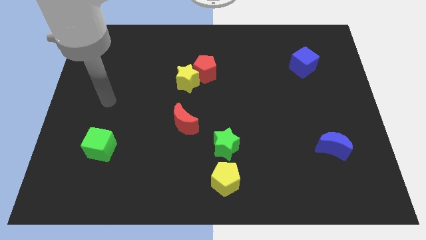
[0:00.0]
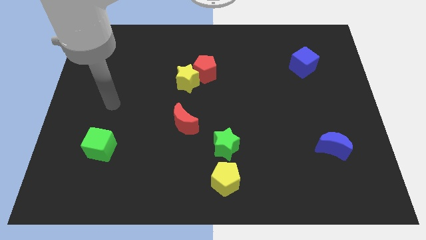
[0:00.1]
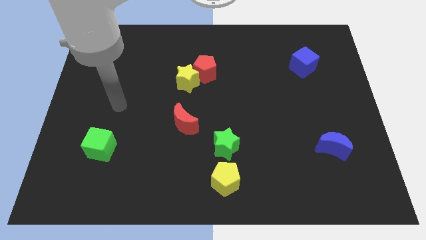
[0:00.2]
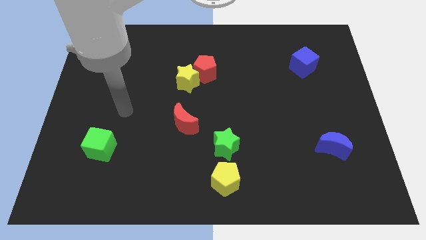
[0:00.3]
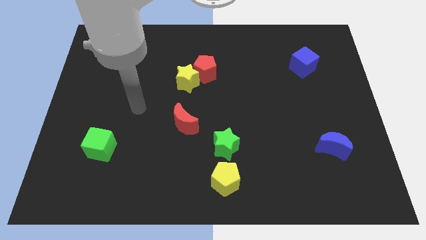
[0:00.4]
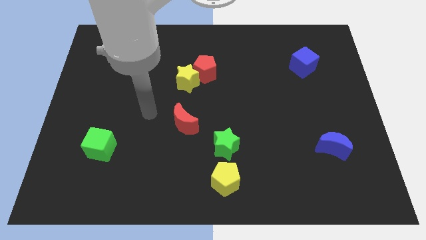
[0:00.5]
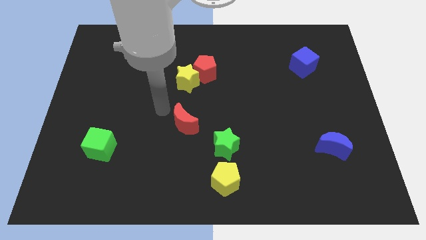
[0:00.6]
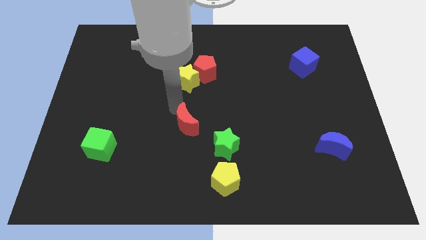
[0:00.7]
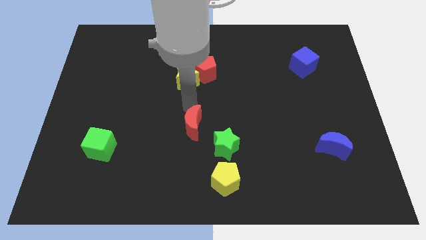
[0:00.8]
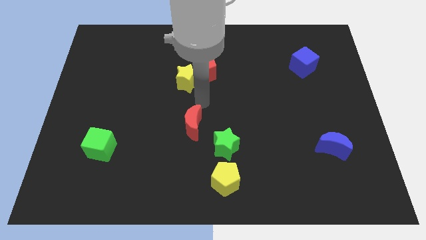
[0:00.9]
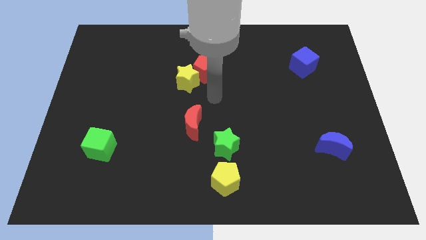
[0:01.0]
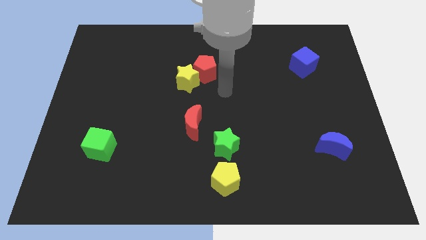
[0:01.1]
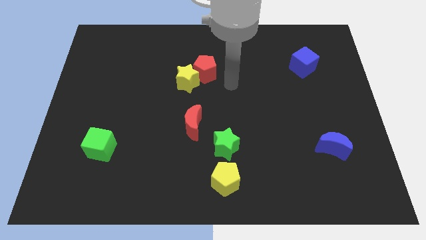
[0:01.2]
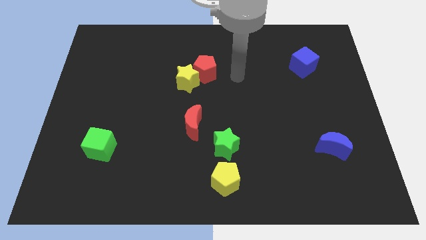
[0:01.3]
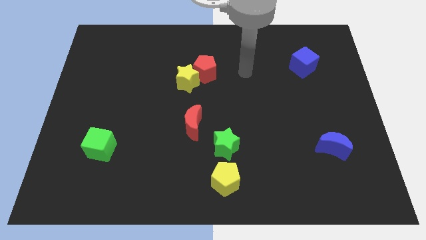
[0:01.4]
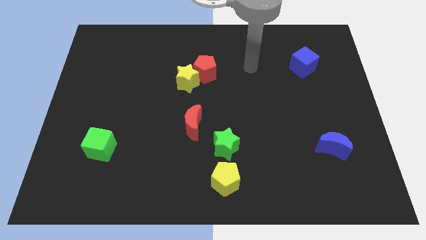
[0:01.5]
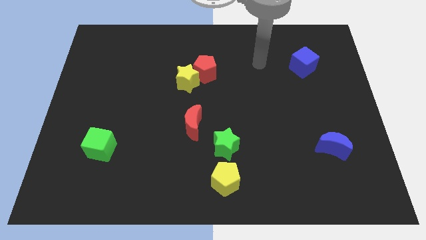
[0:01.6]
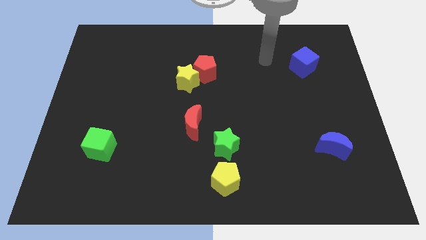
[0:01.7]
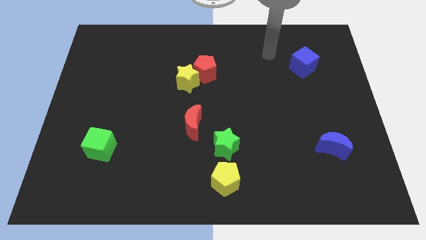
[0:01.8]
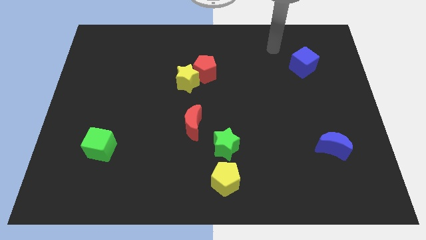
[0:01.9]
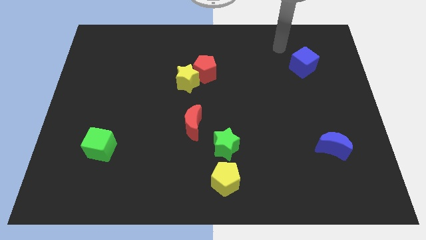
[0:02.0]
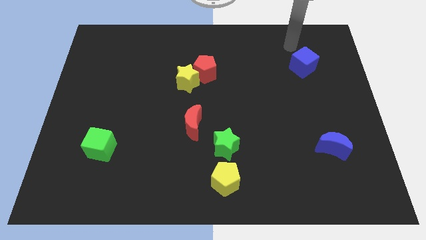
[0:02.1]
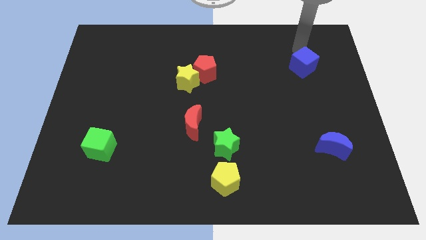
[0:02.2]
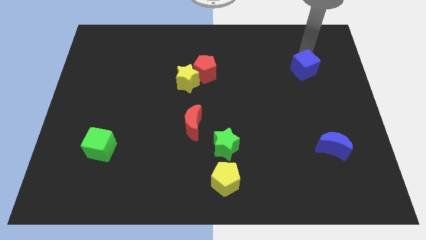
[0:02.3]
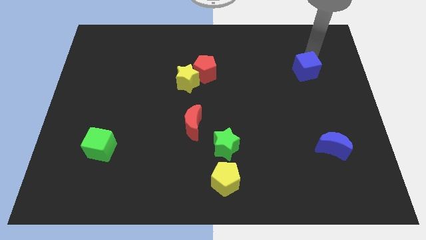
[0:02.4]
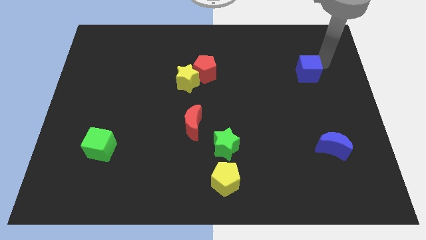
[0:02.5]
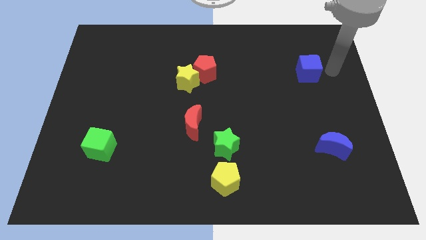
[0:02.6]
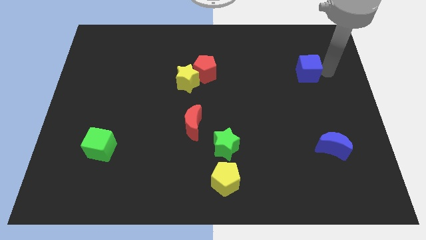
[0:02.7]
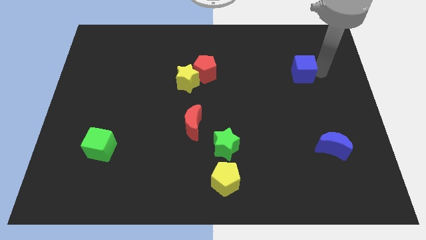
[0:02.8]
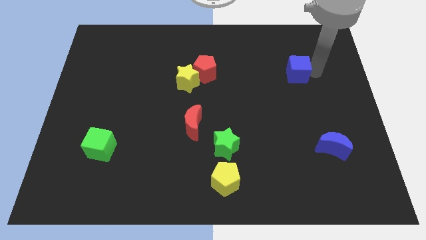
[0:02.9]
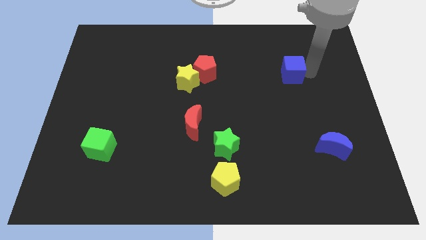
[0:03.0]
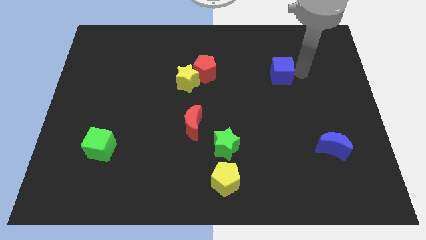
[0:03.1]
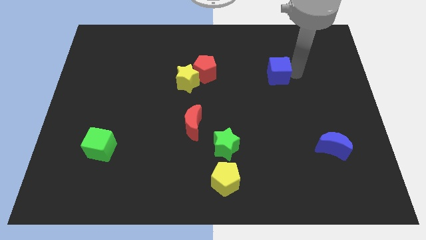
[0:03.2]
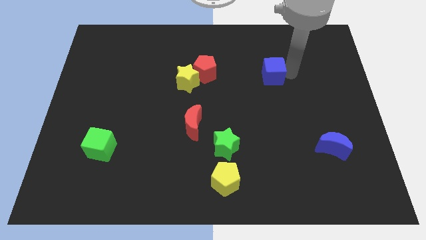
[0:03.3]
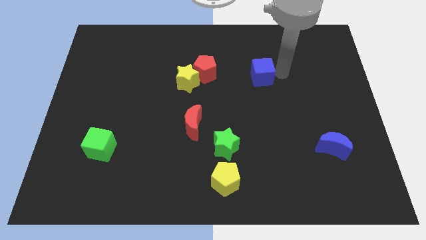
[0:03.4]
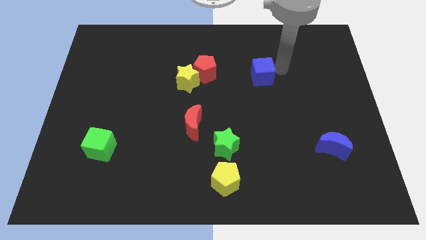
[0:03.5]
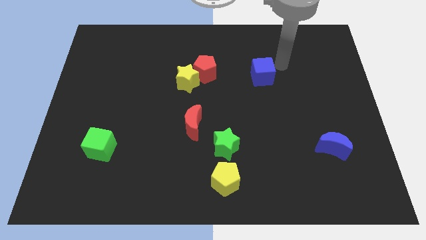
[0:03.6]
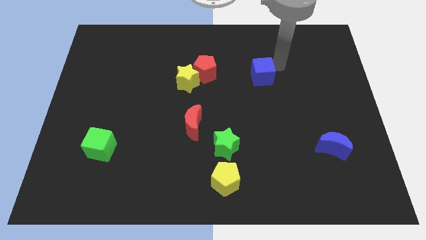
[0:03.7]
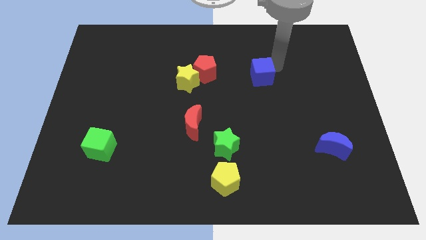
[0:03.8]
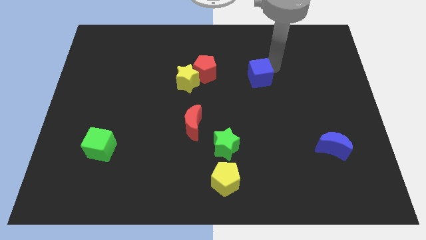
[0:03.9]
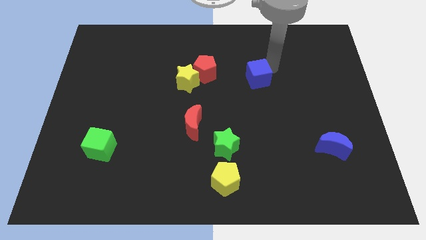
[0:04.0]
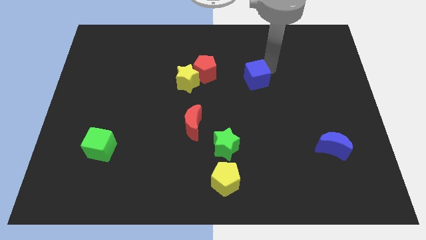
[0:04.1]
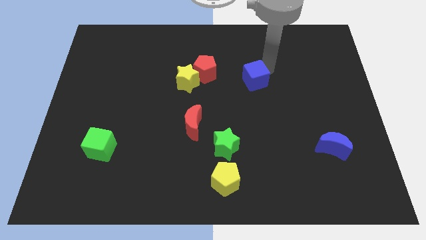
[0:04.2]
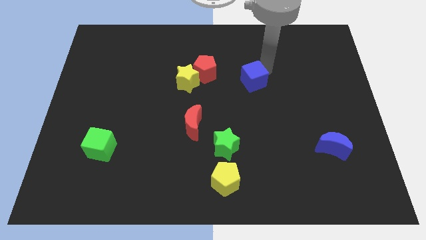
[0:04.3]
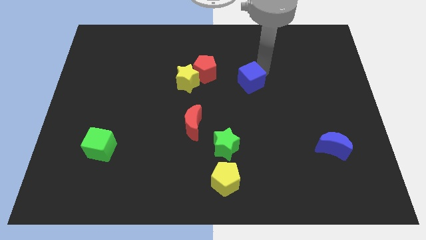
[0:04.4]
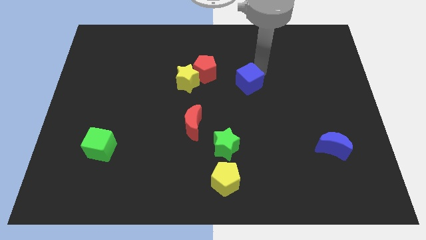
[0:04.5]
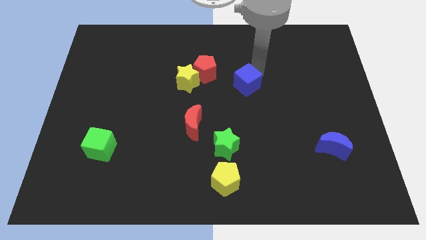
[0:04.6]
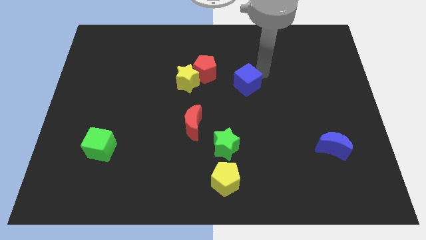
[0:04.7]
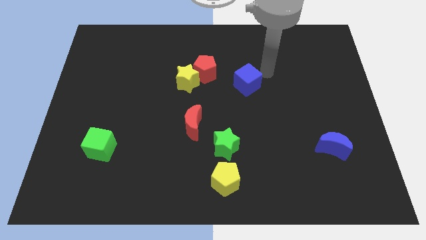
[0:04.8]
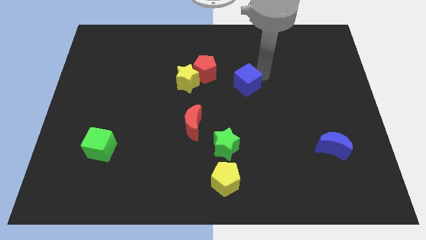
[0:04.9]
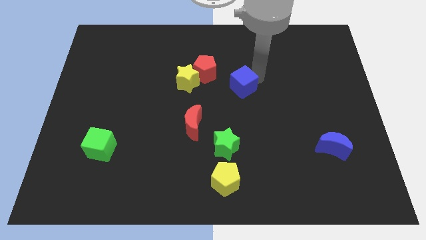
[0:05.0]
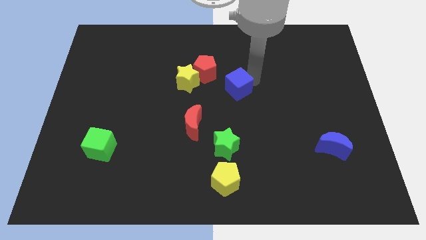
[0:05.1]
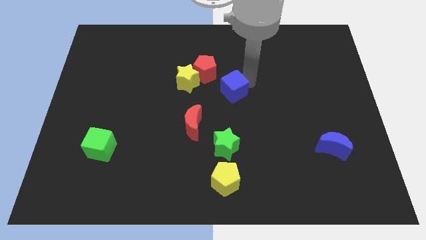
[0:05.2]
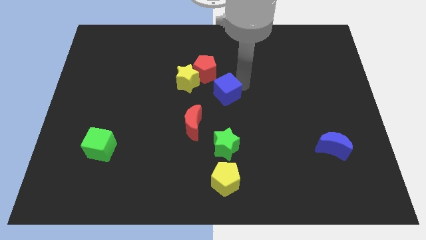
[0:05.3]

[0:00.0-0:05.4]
slide the blue cube to the top right of the red moon

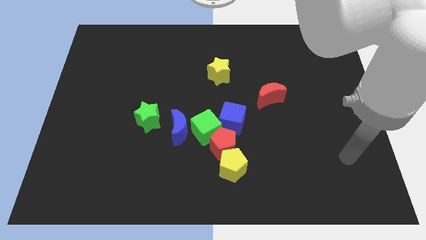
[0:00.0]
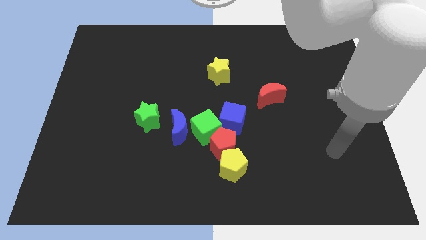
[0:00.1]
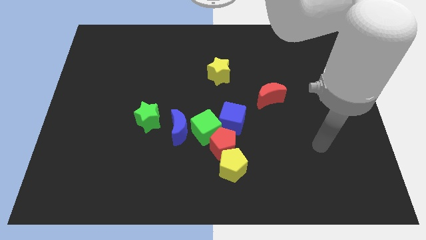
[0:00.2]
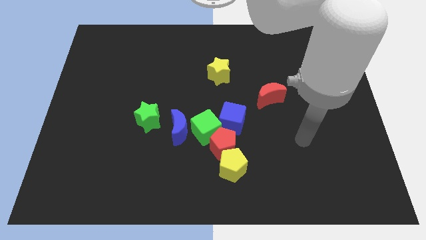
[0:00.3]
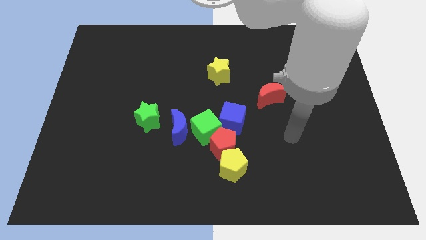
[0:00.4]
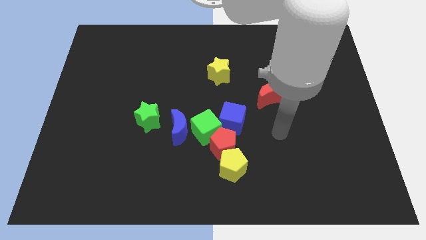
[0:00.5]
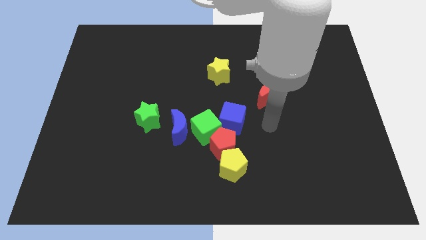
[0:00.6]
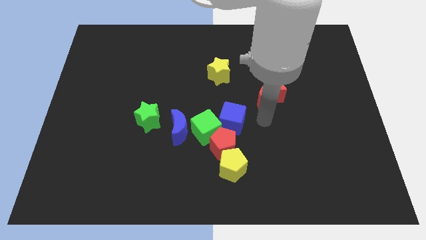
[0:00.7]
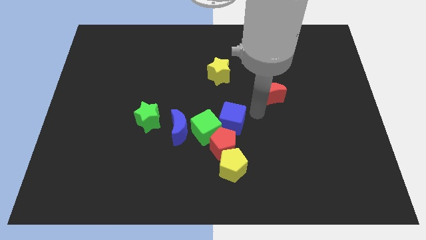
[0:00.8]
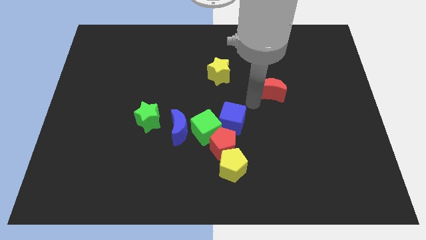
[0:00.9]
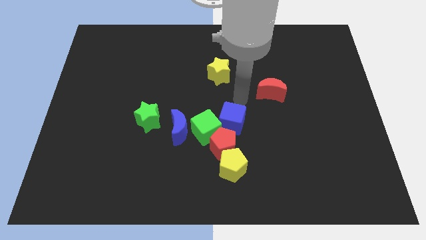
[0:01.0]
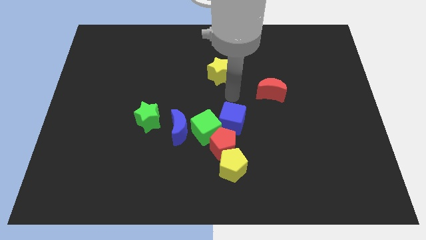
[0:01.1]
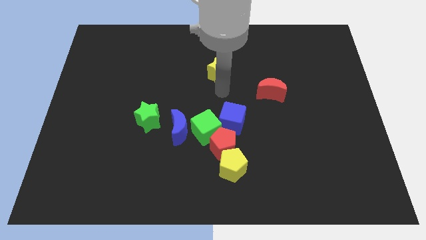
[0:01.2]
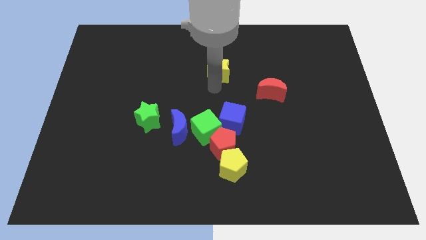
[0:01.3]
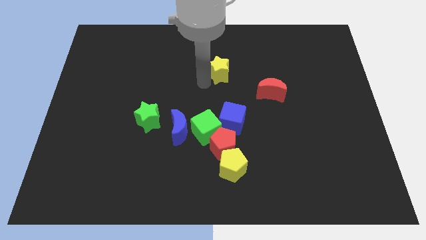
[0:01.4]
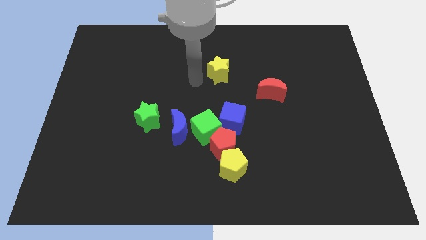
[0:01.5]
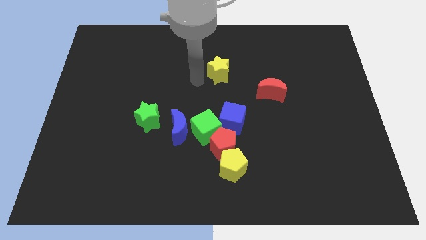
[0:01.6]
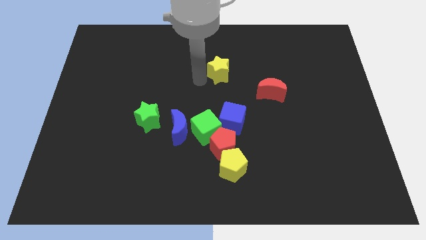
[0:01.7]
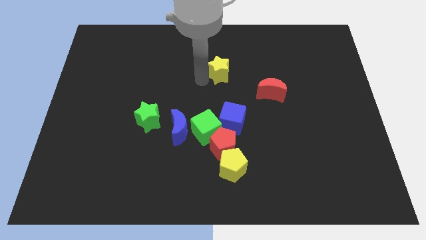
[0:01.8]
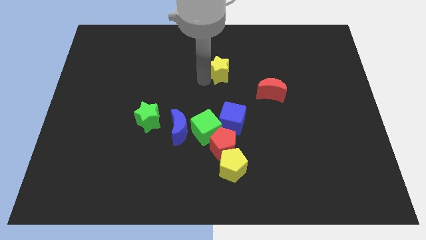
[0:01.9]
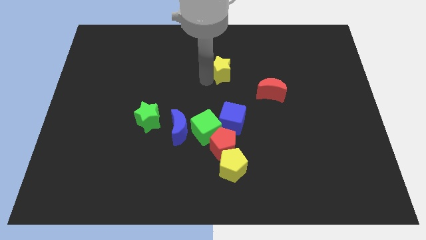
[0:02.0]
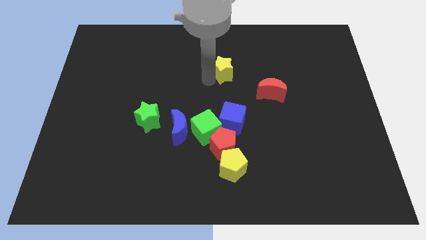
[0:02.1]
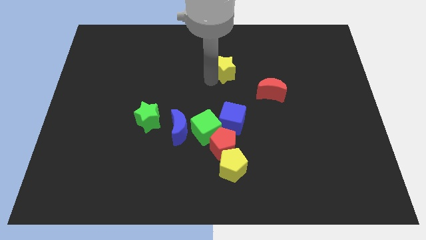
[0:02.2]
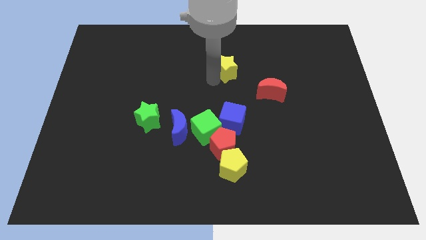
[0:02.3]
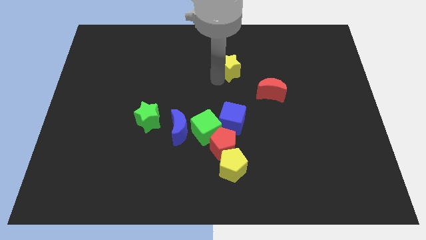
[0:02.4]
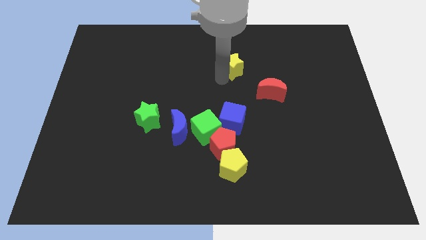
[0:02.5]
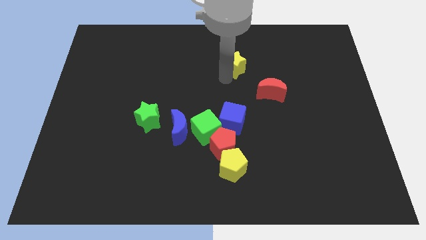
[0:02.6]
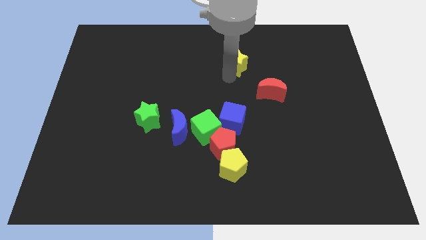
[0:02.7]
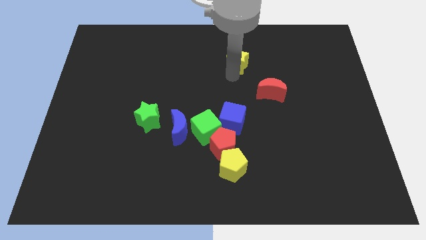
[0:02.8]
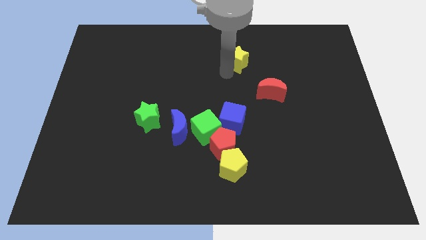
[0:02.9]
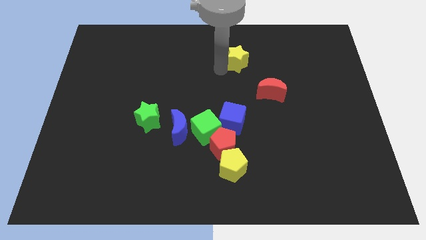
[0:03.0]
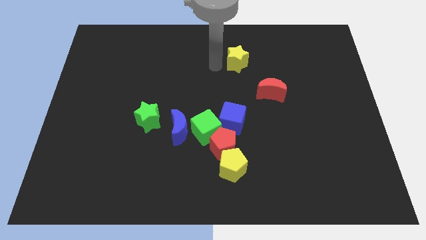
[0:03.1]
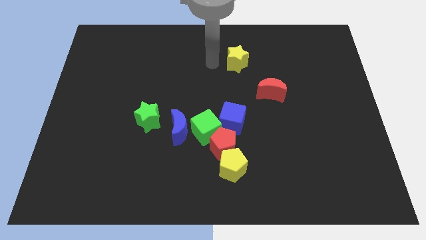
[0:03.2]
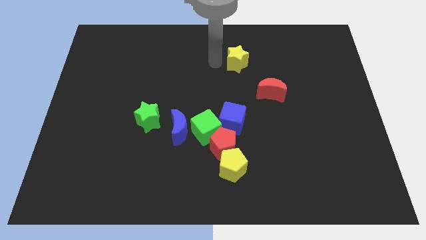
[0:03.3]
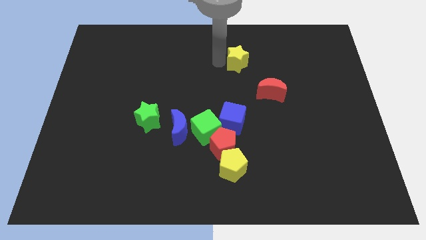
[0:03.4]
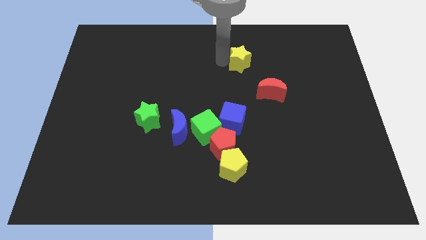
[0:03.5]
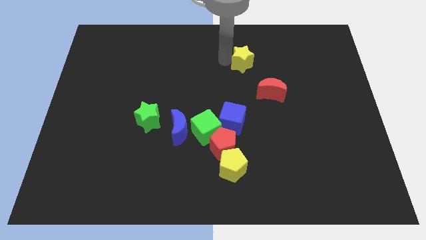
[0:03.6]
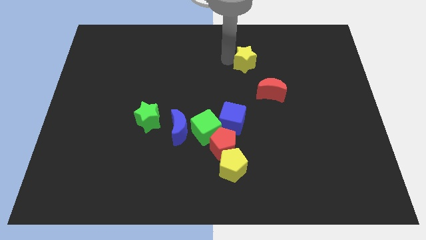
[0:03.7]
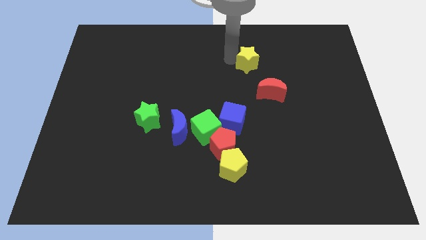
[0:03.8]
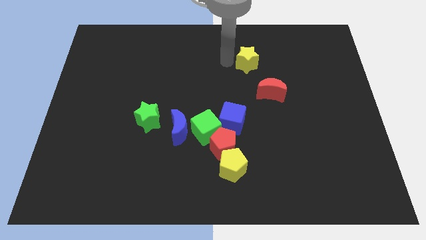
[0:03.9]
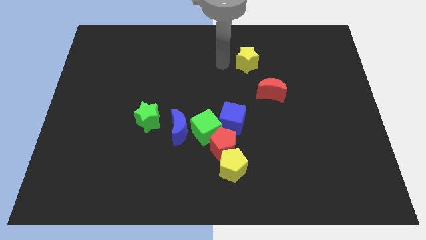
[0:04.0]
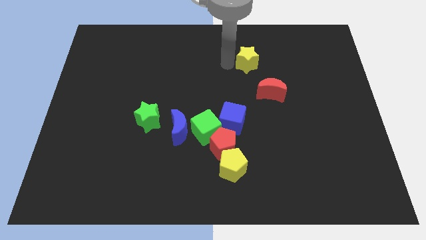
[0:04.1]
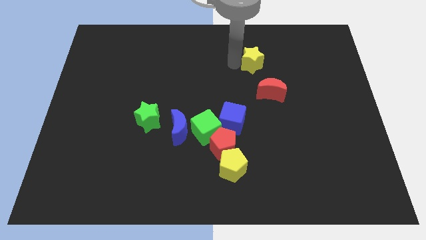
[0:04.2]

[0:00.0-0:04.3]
put the yellow star to the top side of the red moon
